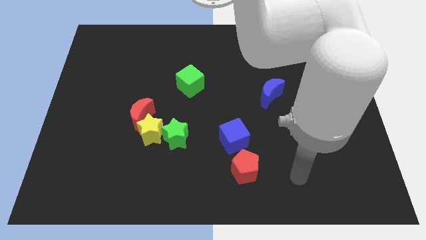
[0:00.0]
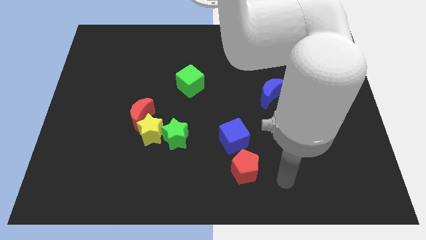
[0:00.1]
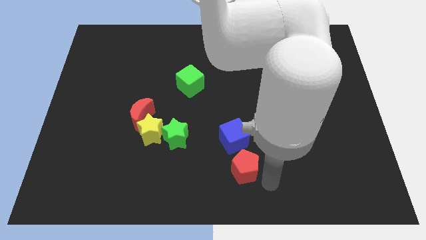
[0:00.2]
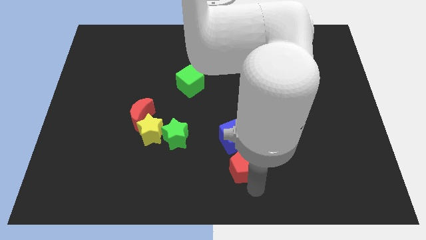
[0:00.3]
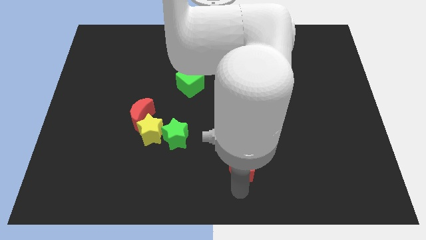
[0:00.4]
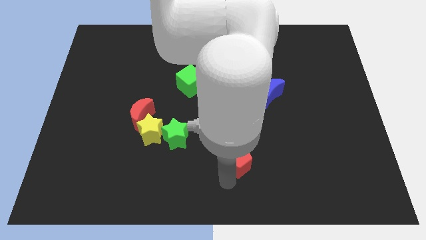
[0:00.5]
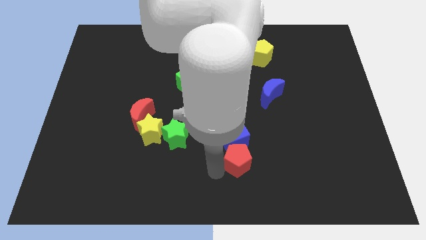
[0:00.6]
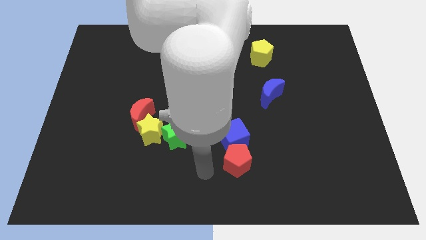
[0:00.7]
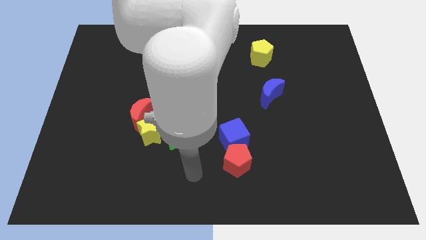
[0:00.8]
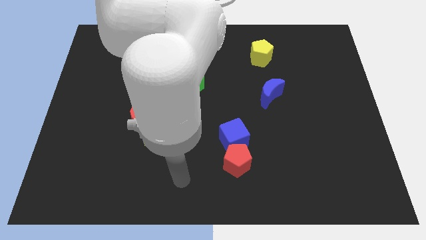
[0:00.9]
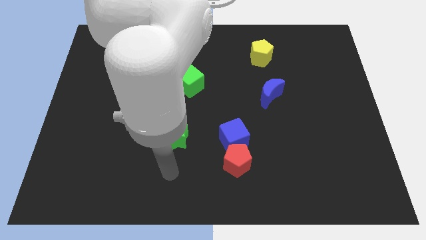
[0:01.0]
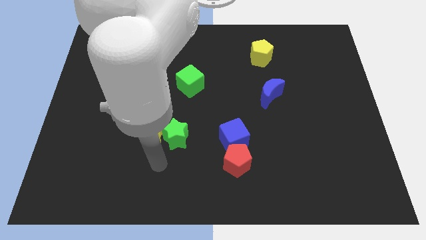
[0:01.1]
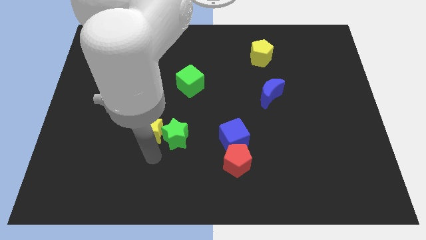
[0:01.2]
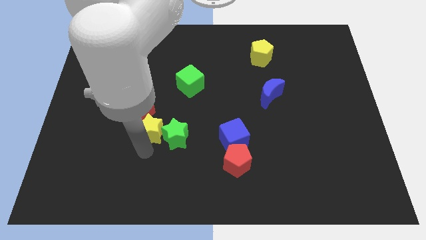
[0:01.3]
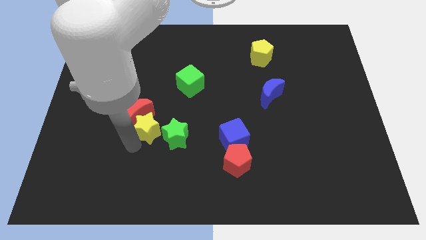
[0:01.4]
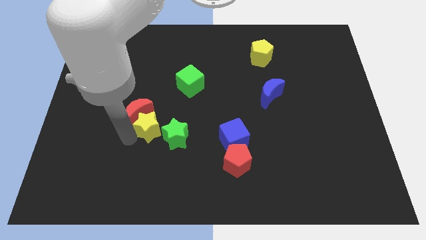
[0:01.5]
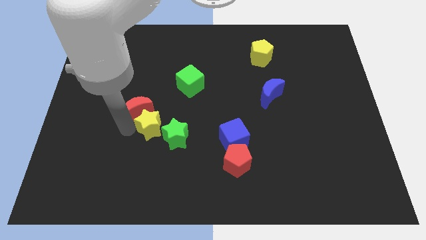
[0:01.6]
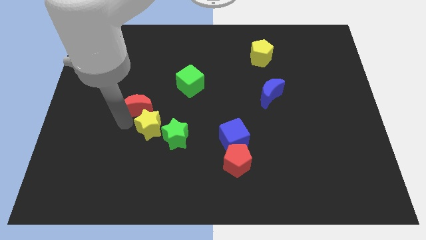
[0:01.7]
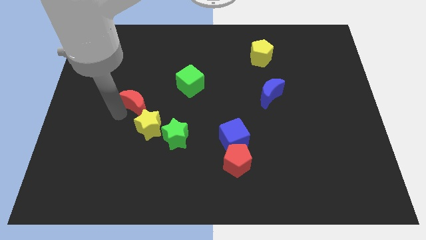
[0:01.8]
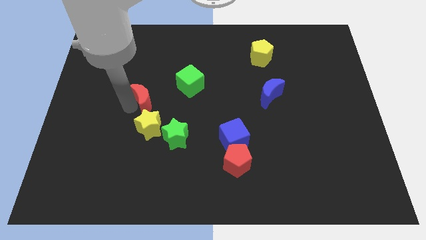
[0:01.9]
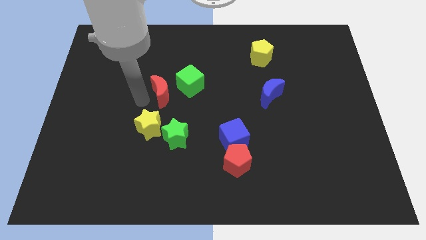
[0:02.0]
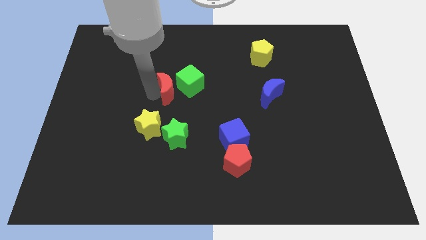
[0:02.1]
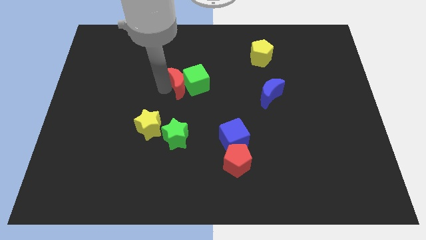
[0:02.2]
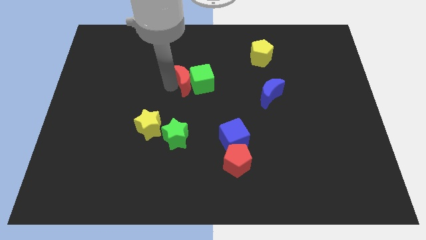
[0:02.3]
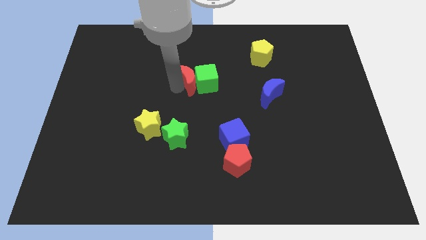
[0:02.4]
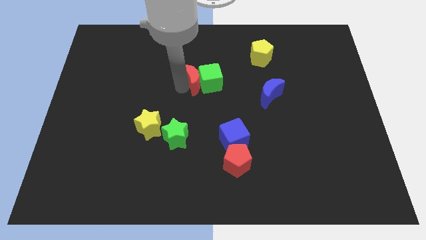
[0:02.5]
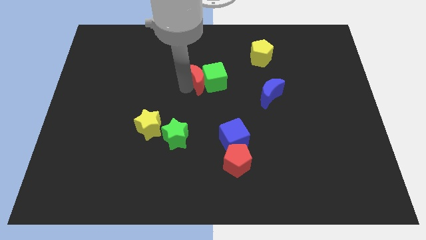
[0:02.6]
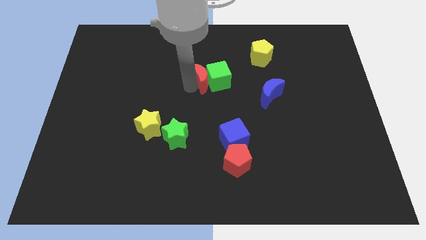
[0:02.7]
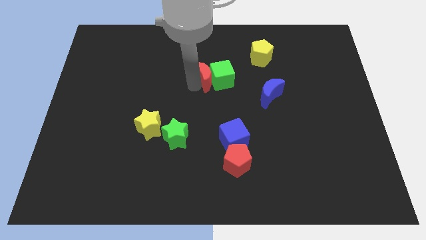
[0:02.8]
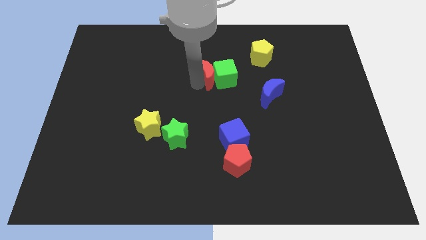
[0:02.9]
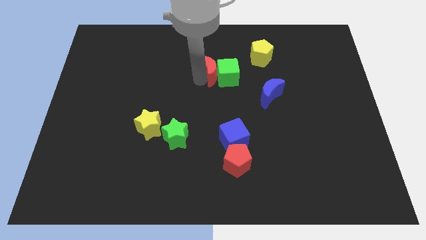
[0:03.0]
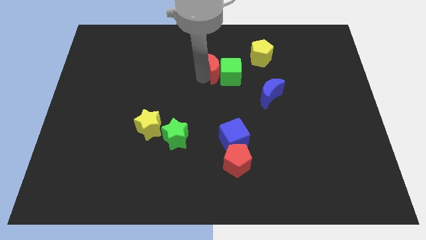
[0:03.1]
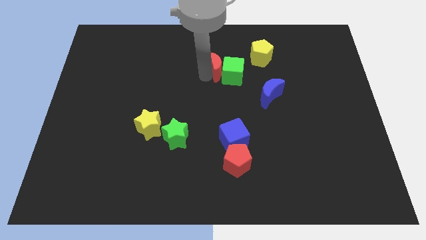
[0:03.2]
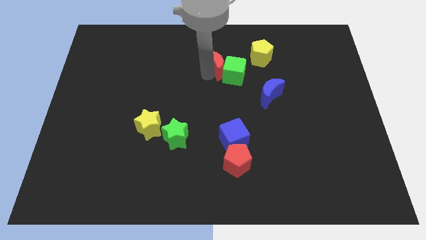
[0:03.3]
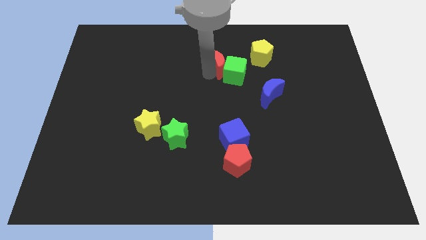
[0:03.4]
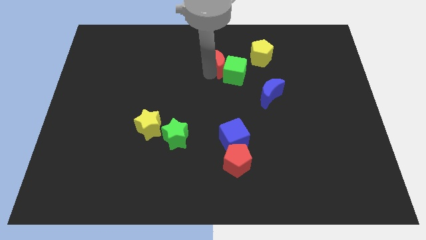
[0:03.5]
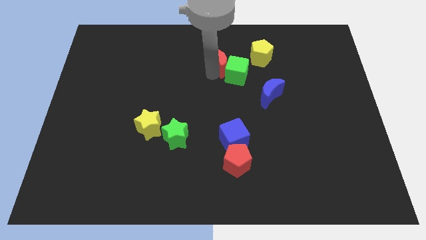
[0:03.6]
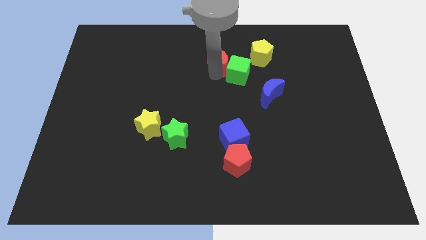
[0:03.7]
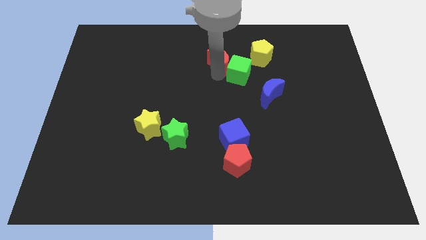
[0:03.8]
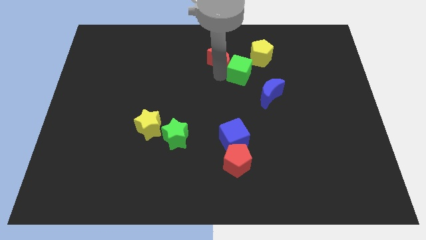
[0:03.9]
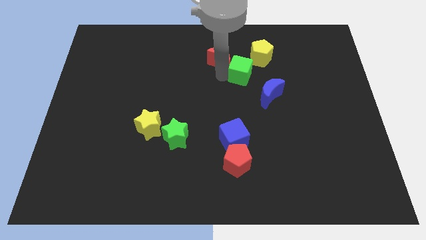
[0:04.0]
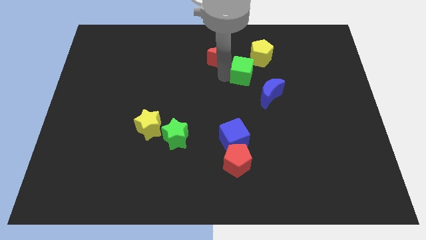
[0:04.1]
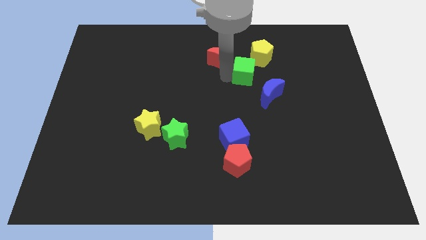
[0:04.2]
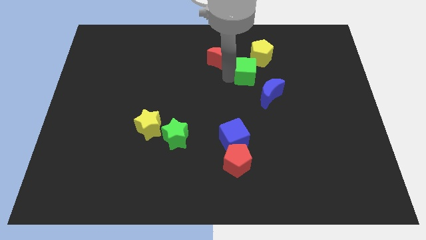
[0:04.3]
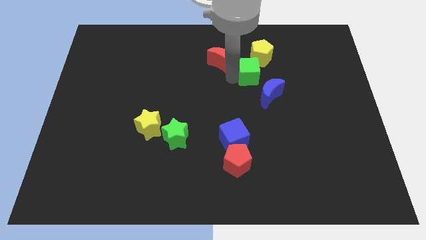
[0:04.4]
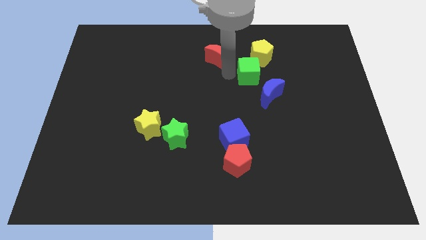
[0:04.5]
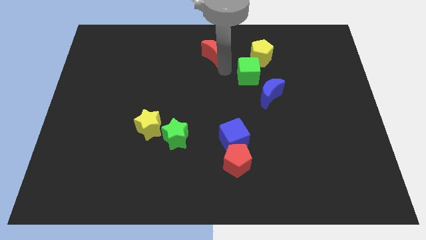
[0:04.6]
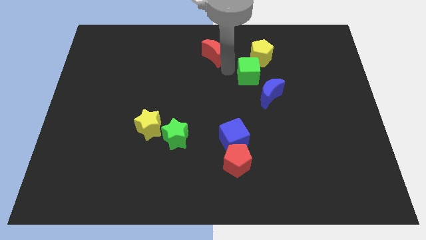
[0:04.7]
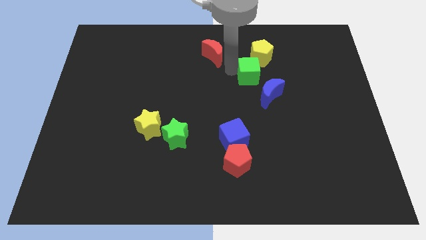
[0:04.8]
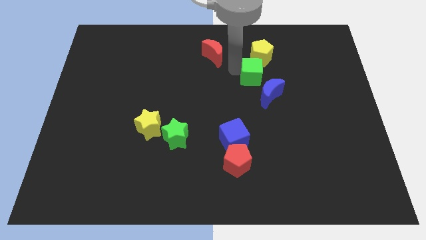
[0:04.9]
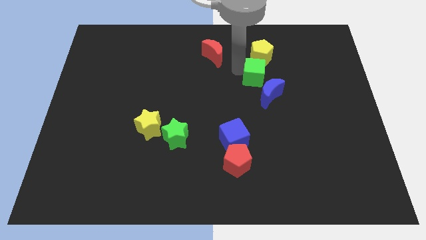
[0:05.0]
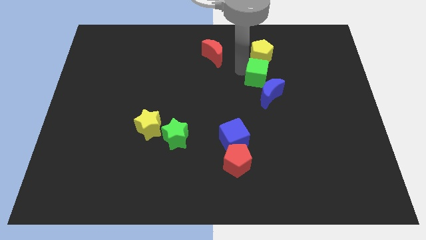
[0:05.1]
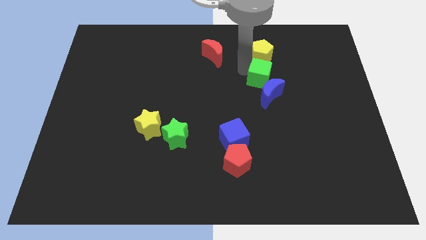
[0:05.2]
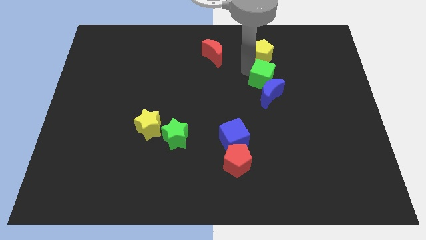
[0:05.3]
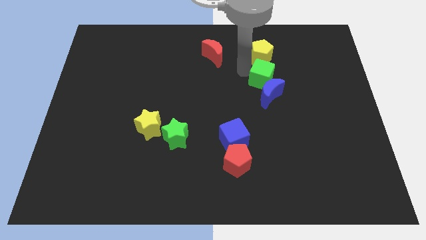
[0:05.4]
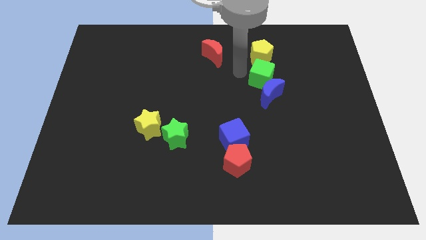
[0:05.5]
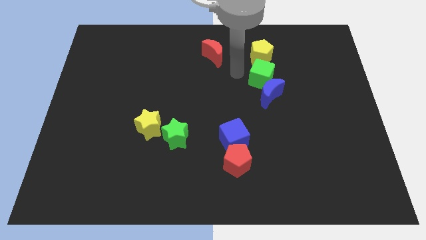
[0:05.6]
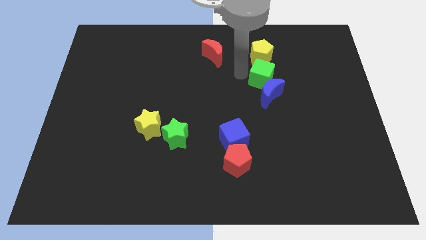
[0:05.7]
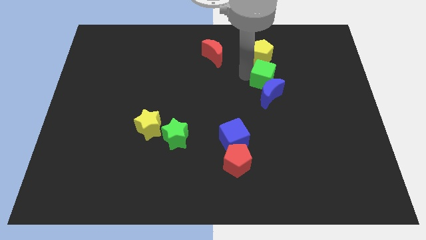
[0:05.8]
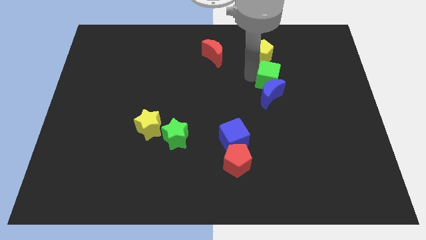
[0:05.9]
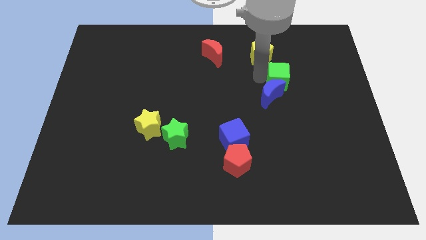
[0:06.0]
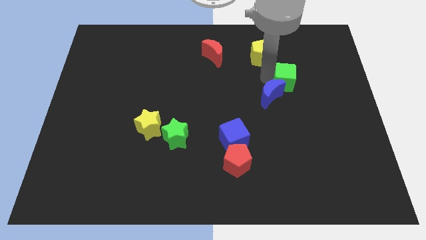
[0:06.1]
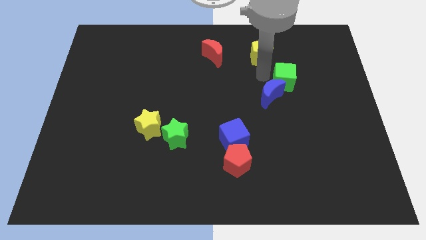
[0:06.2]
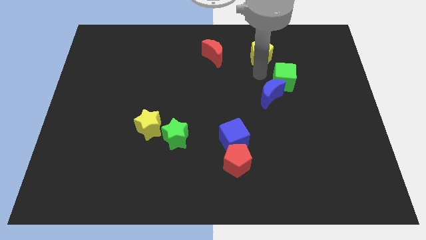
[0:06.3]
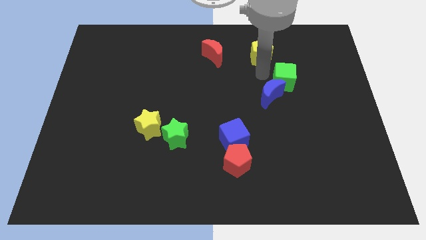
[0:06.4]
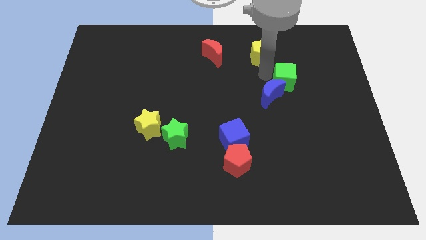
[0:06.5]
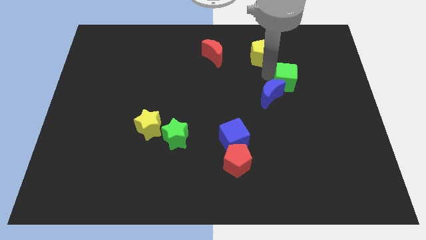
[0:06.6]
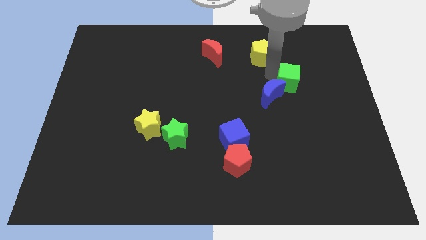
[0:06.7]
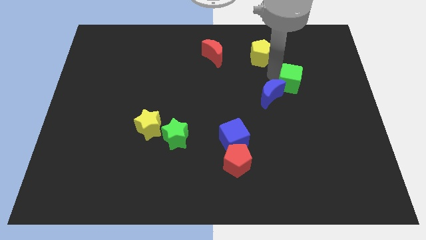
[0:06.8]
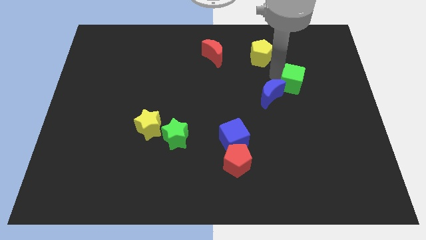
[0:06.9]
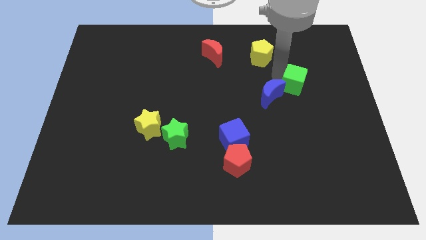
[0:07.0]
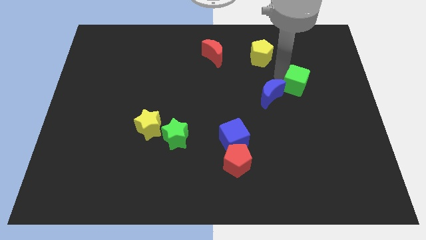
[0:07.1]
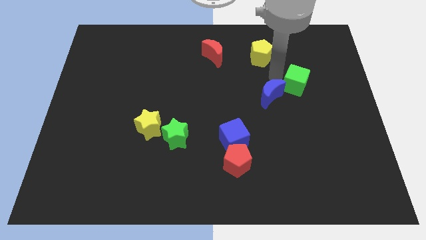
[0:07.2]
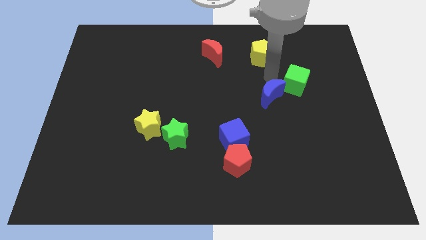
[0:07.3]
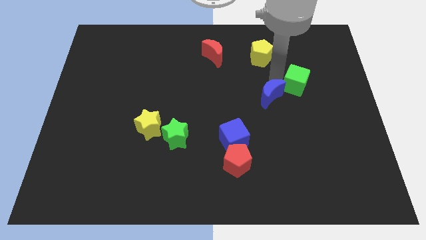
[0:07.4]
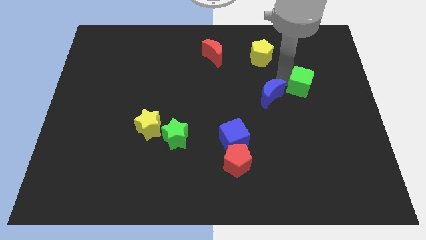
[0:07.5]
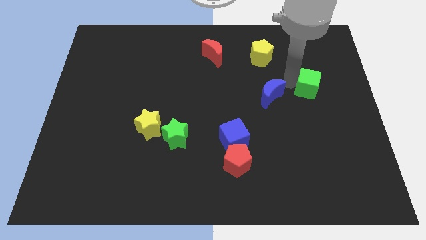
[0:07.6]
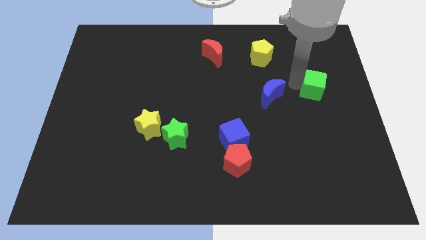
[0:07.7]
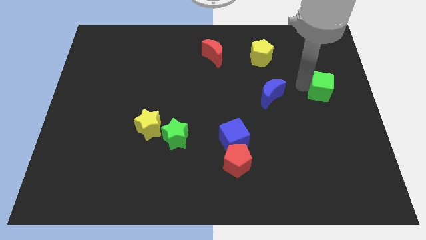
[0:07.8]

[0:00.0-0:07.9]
put the green cube to the right side
